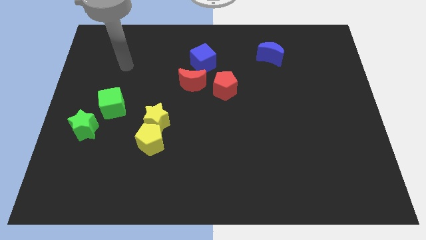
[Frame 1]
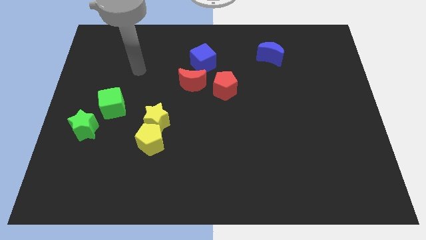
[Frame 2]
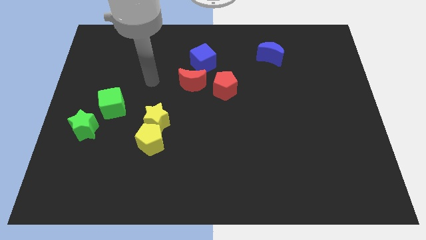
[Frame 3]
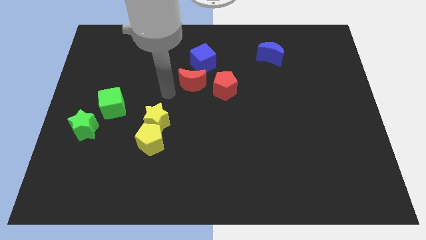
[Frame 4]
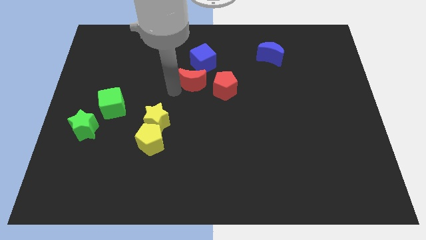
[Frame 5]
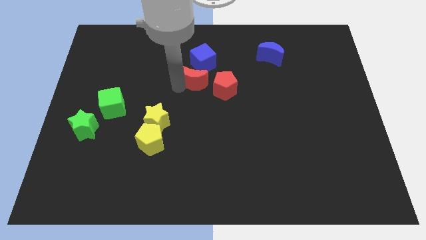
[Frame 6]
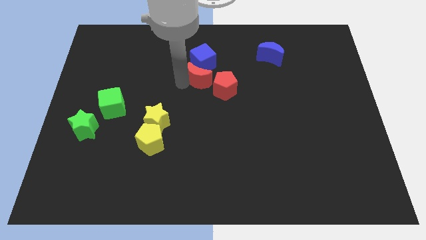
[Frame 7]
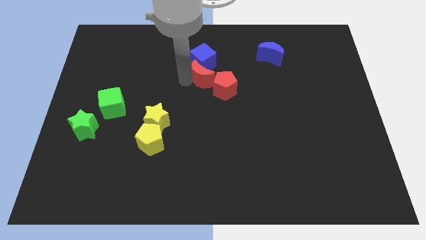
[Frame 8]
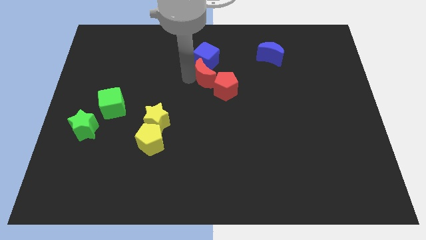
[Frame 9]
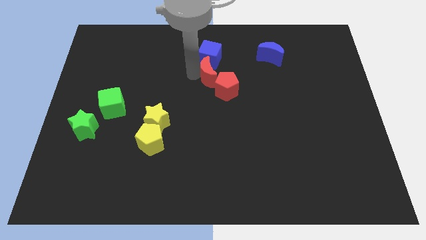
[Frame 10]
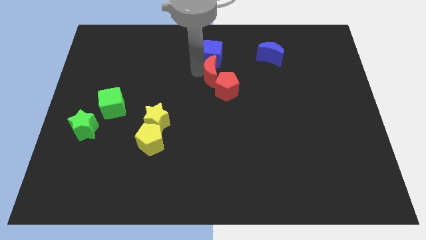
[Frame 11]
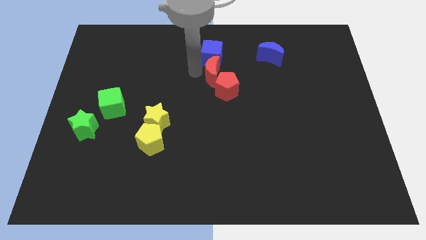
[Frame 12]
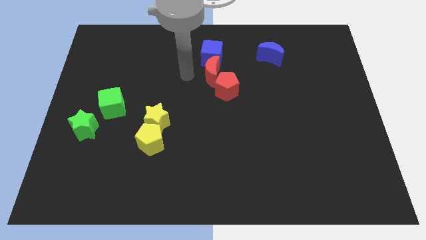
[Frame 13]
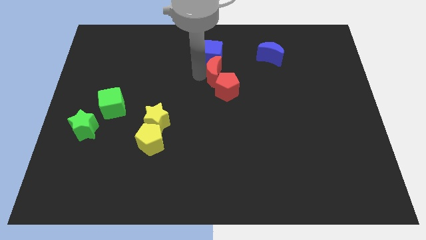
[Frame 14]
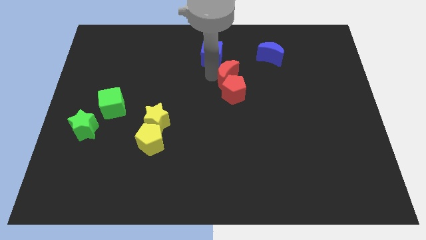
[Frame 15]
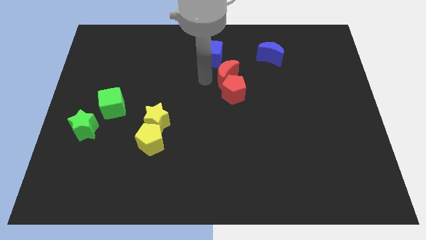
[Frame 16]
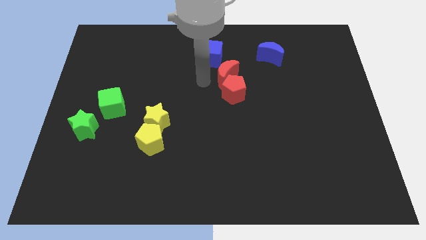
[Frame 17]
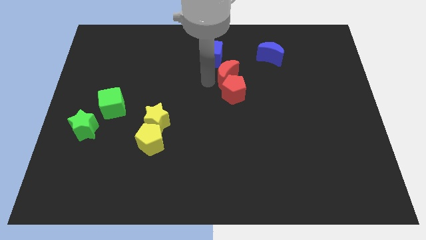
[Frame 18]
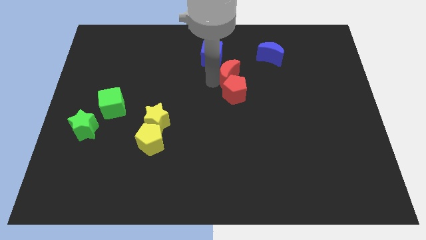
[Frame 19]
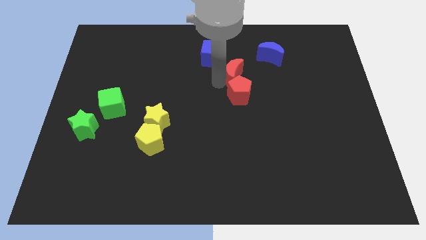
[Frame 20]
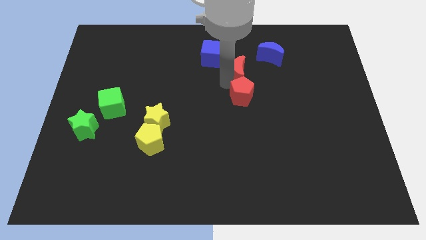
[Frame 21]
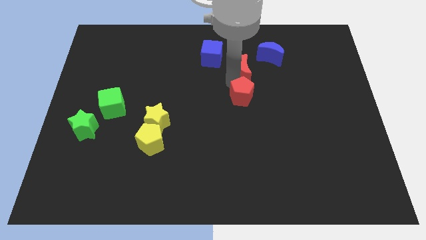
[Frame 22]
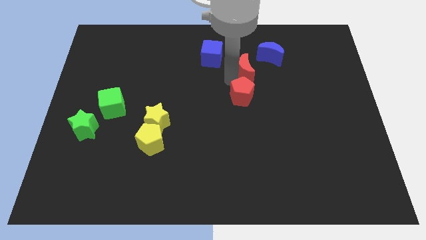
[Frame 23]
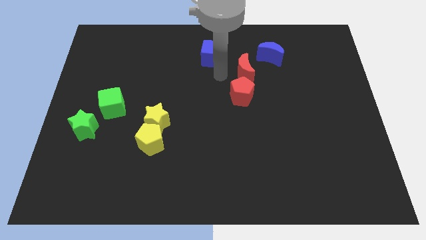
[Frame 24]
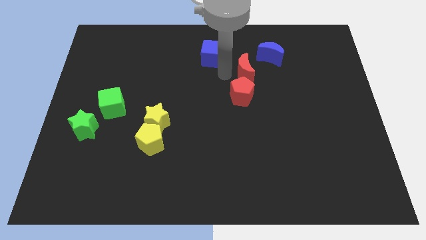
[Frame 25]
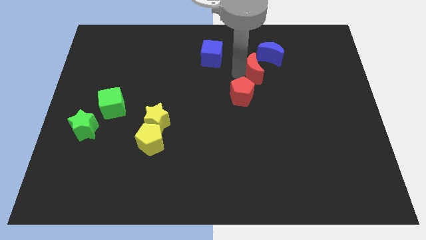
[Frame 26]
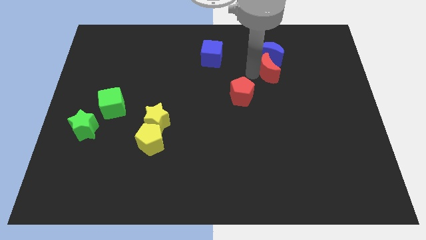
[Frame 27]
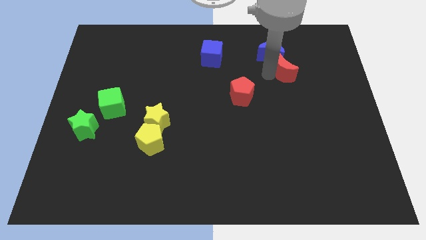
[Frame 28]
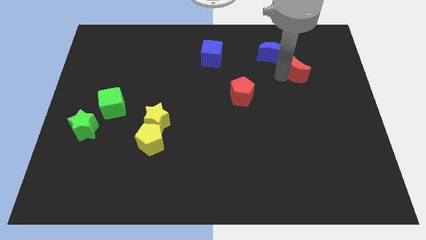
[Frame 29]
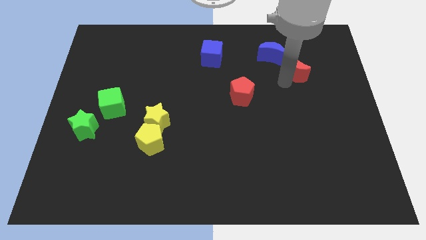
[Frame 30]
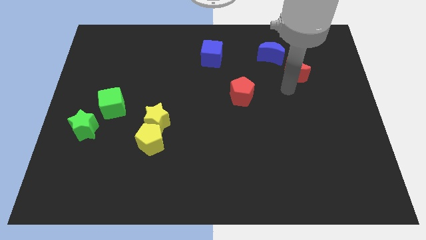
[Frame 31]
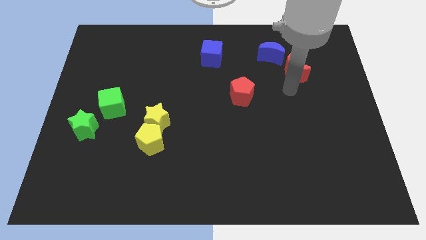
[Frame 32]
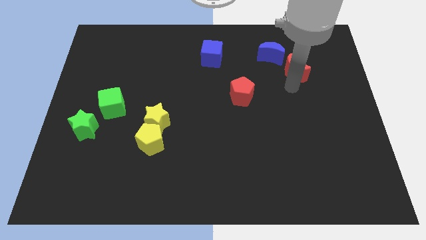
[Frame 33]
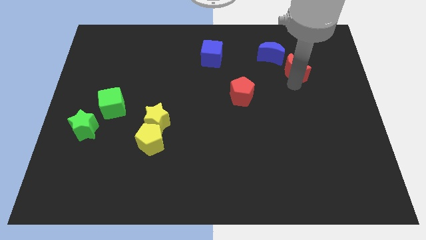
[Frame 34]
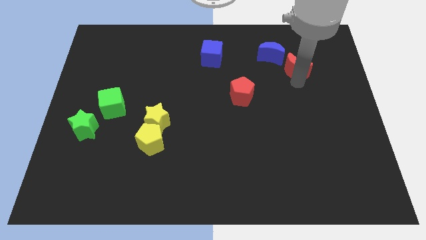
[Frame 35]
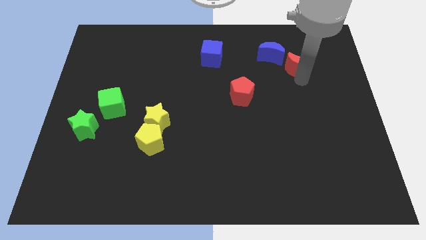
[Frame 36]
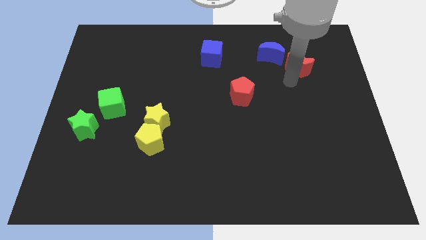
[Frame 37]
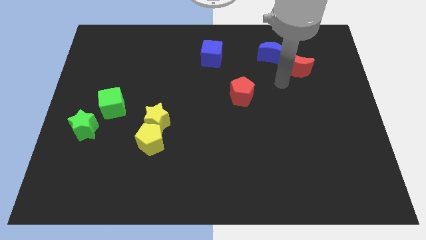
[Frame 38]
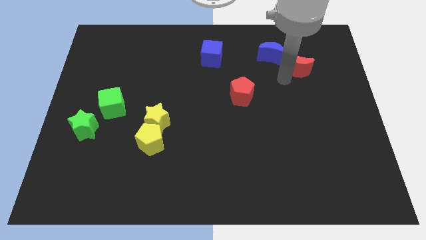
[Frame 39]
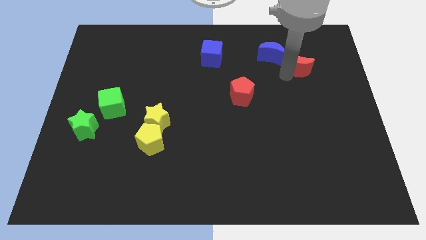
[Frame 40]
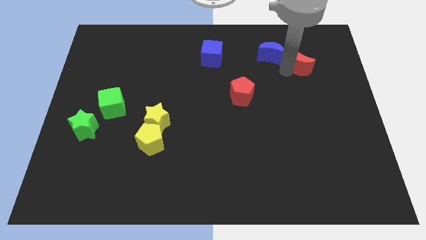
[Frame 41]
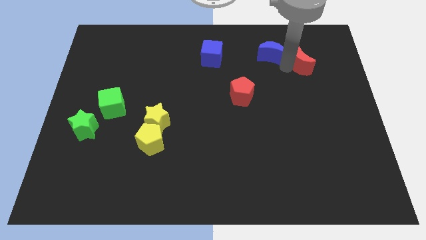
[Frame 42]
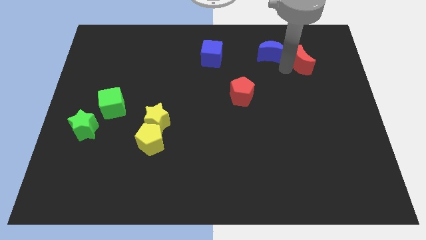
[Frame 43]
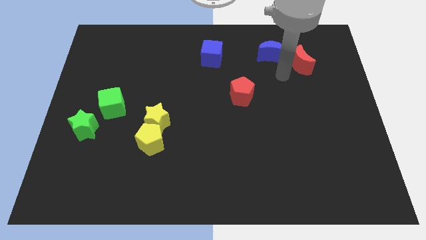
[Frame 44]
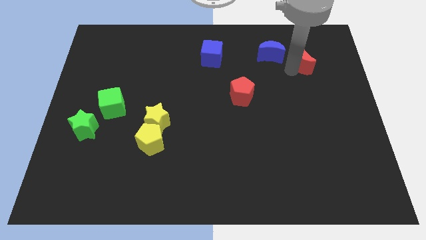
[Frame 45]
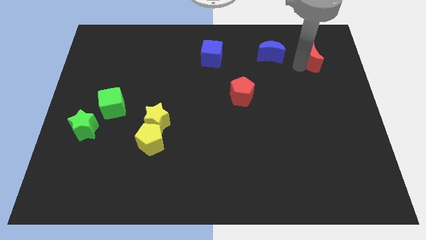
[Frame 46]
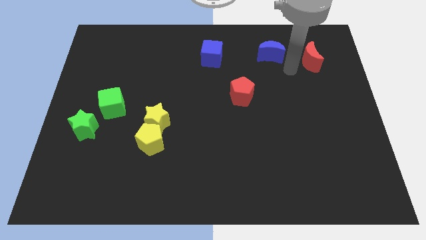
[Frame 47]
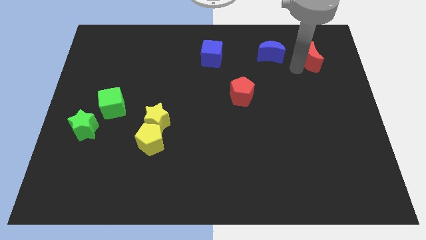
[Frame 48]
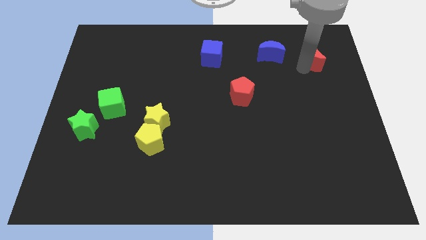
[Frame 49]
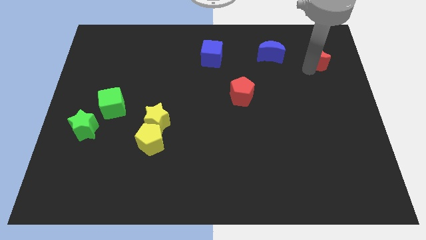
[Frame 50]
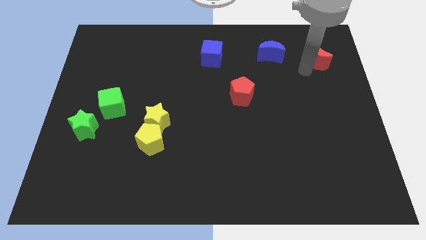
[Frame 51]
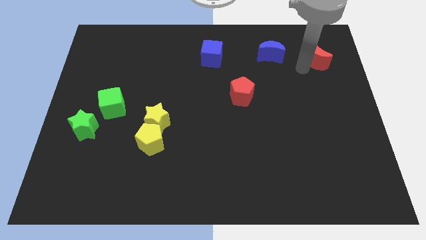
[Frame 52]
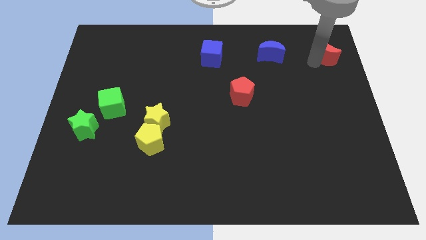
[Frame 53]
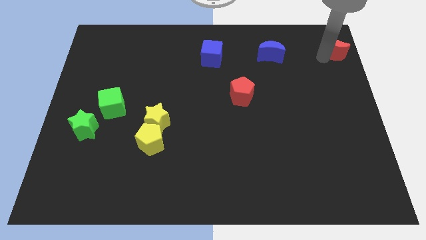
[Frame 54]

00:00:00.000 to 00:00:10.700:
slide the red moon to the top right of the board

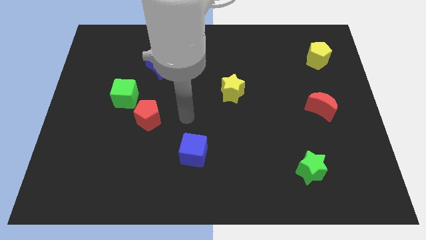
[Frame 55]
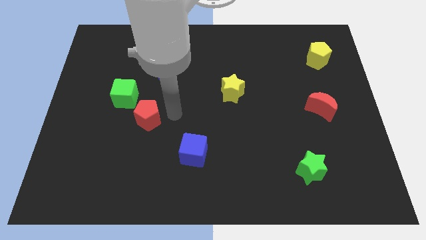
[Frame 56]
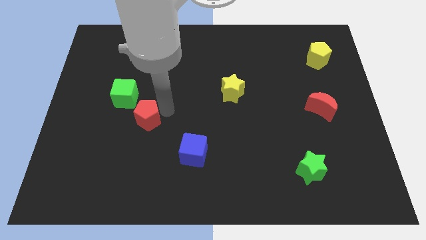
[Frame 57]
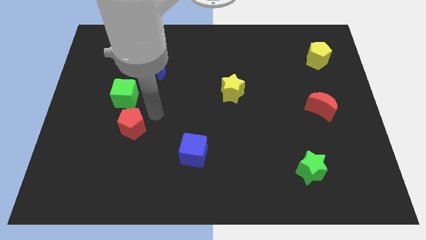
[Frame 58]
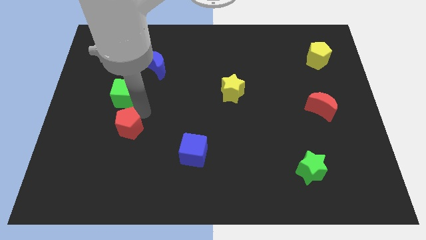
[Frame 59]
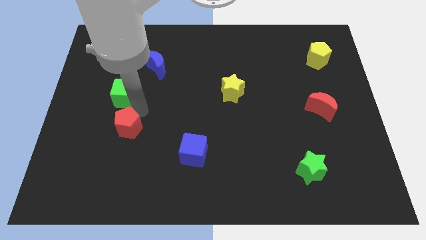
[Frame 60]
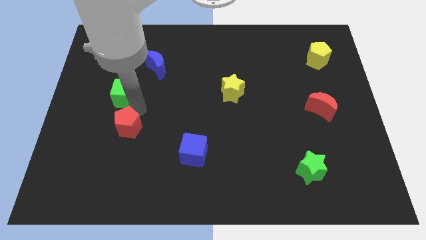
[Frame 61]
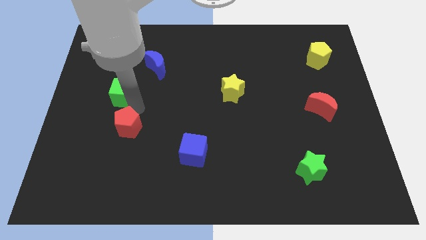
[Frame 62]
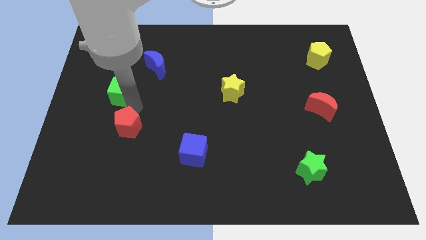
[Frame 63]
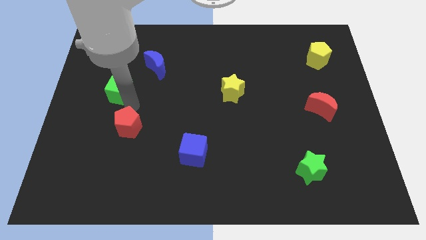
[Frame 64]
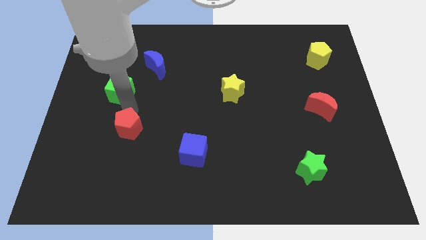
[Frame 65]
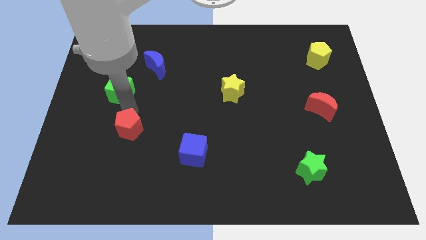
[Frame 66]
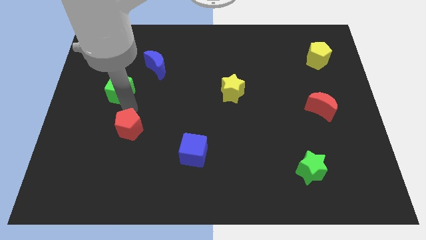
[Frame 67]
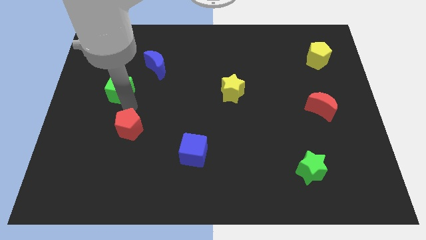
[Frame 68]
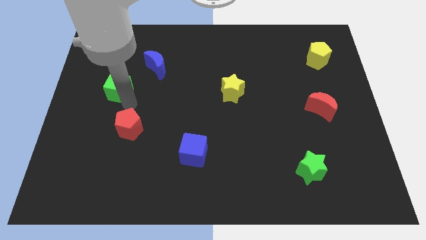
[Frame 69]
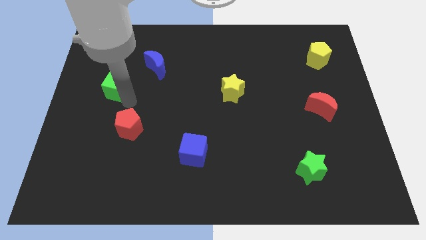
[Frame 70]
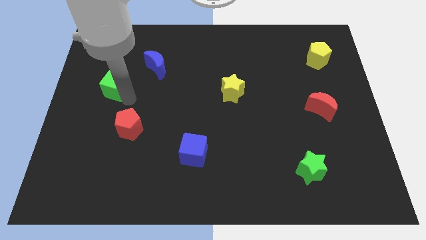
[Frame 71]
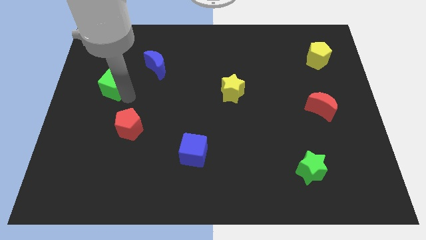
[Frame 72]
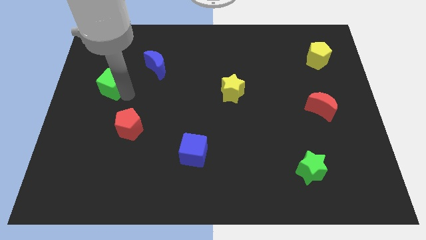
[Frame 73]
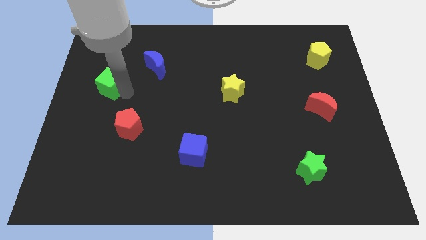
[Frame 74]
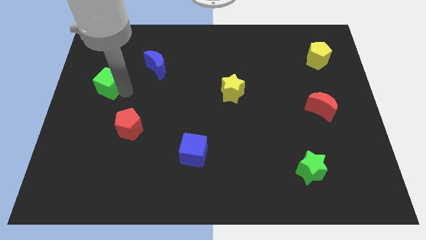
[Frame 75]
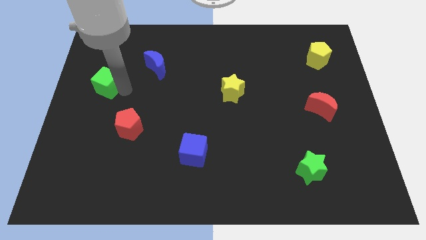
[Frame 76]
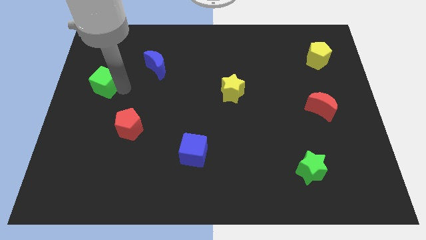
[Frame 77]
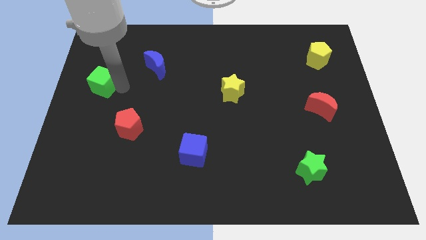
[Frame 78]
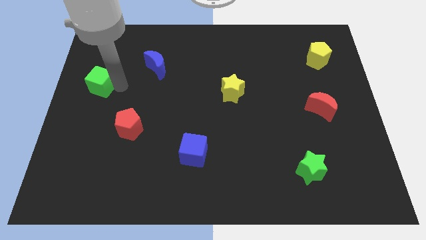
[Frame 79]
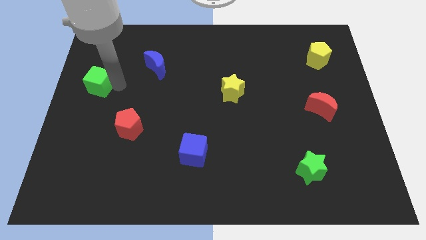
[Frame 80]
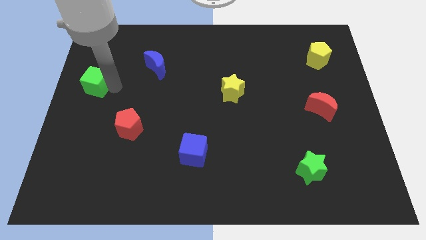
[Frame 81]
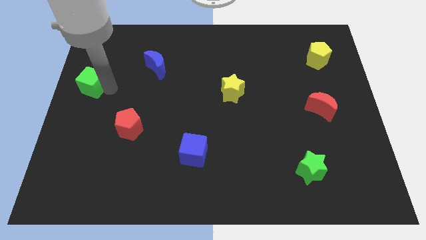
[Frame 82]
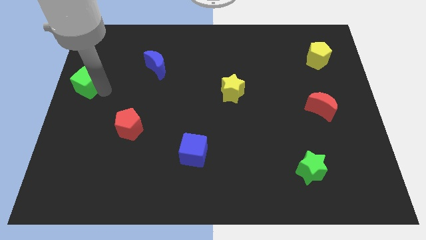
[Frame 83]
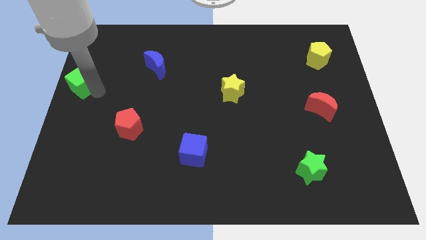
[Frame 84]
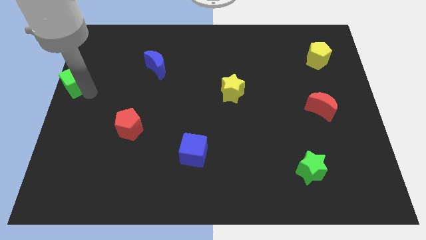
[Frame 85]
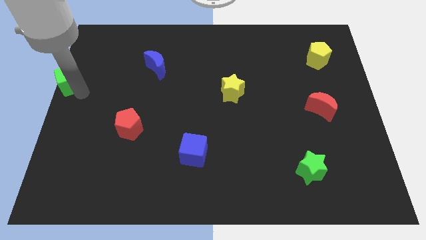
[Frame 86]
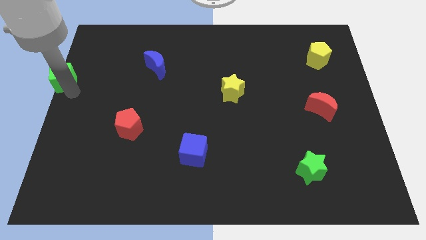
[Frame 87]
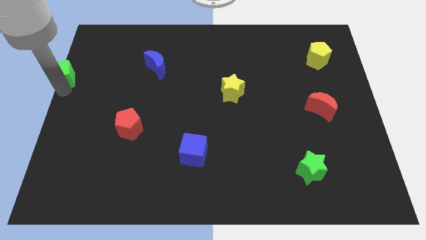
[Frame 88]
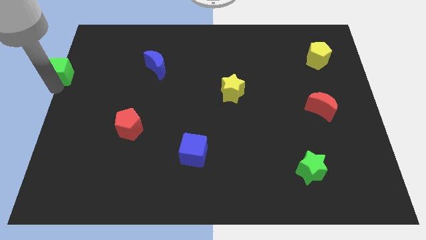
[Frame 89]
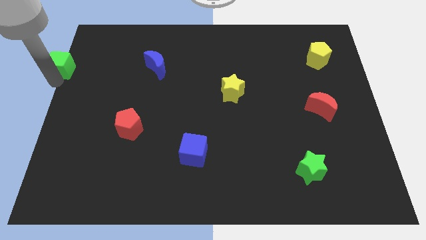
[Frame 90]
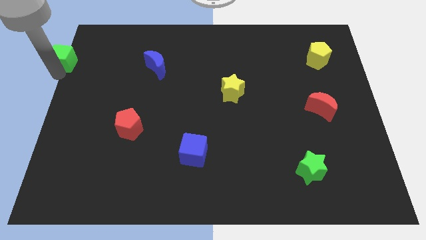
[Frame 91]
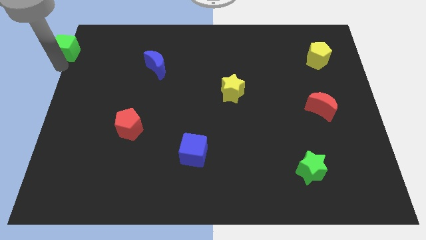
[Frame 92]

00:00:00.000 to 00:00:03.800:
slide the green cube to the top left
